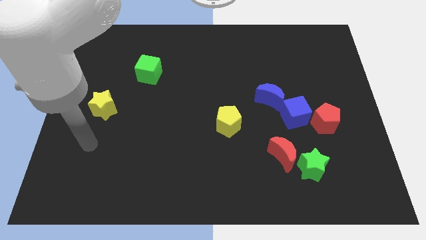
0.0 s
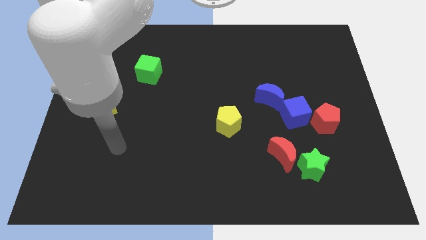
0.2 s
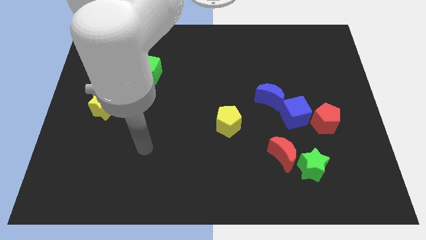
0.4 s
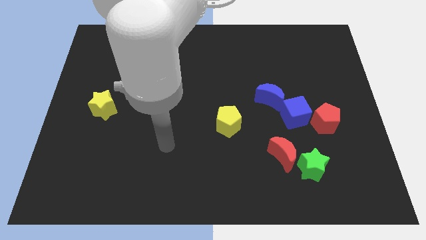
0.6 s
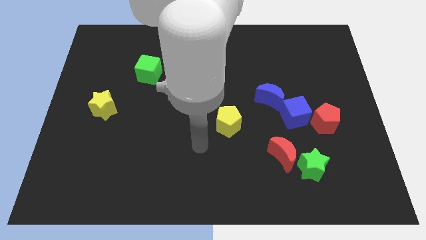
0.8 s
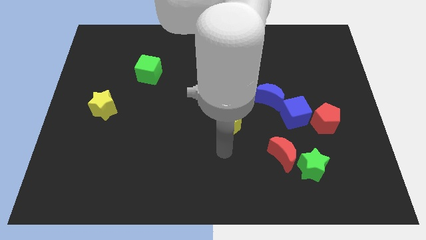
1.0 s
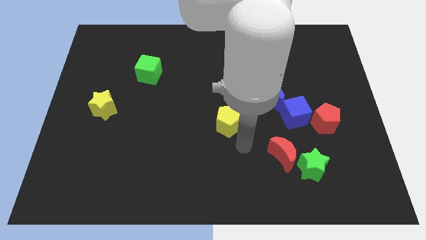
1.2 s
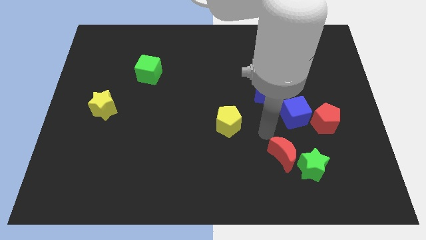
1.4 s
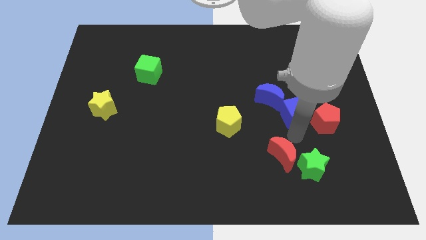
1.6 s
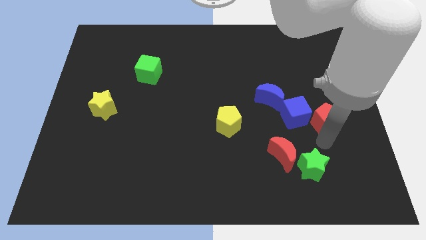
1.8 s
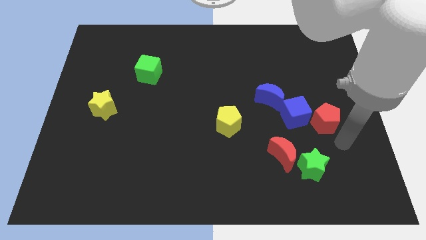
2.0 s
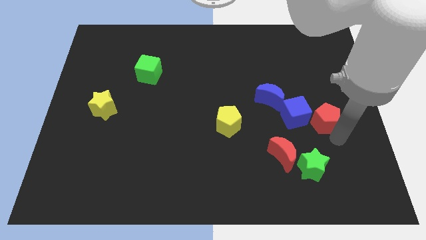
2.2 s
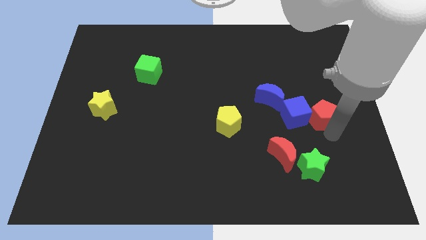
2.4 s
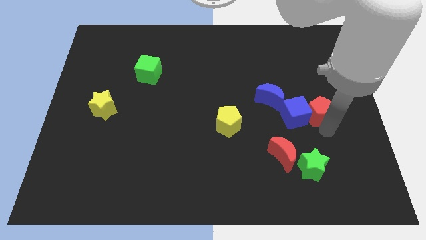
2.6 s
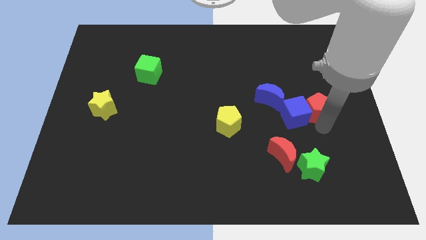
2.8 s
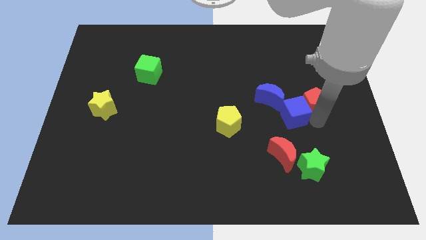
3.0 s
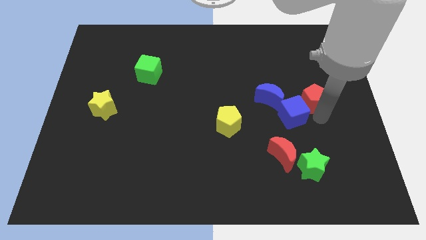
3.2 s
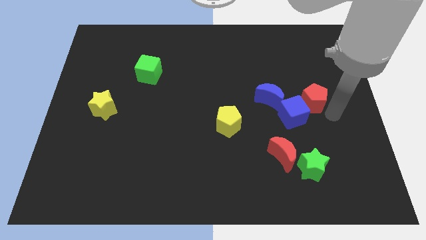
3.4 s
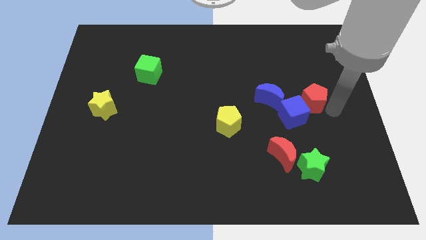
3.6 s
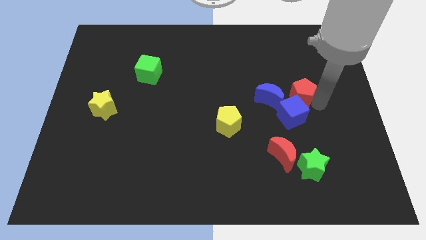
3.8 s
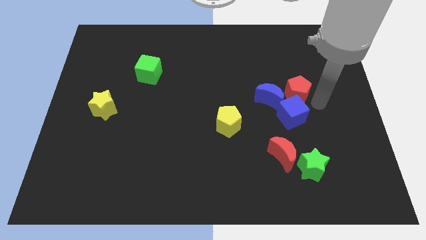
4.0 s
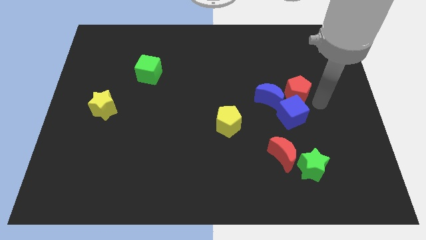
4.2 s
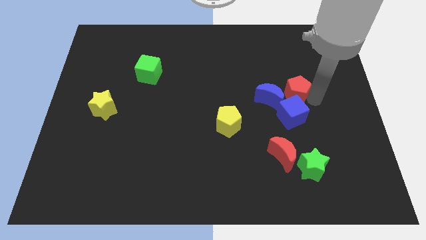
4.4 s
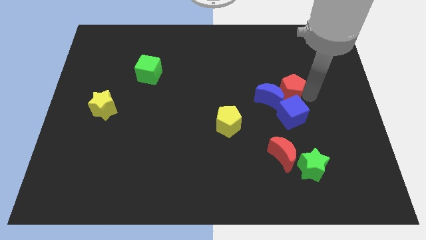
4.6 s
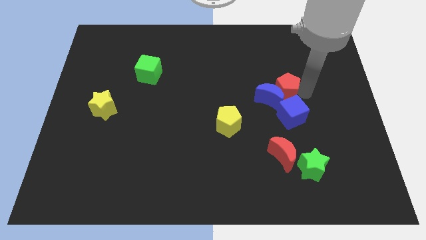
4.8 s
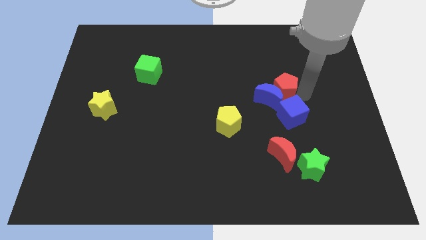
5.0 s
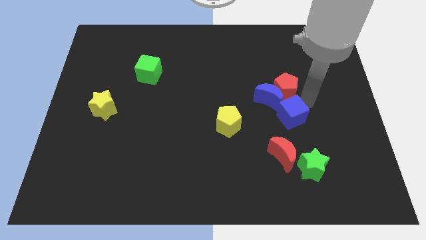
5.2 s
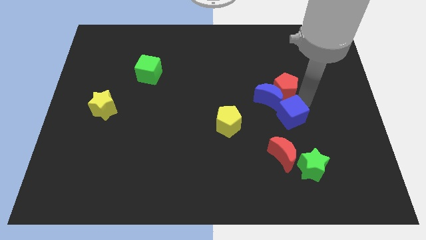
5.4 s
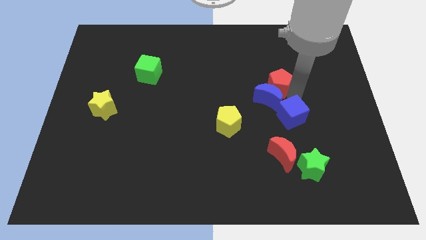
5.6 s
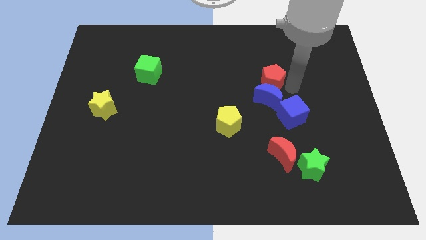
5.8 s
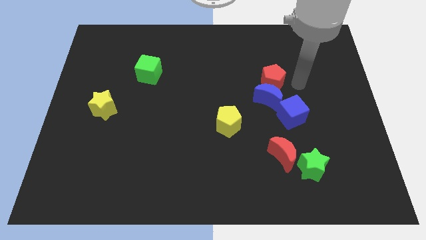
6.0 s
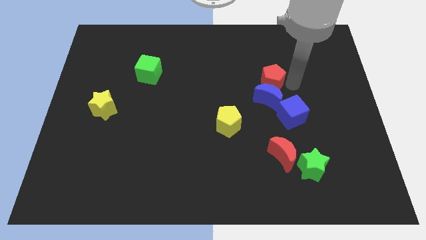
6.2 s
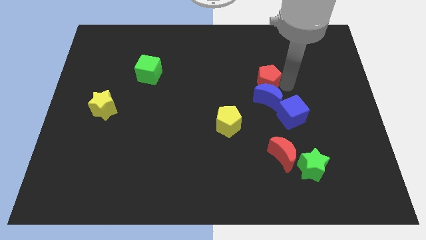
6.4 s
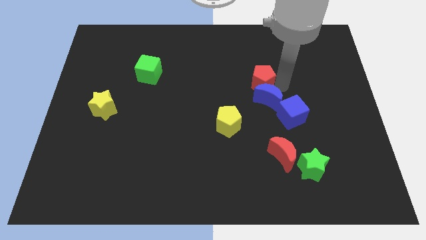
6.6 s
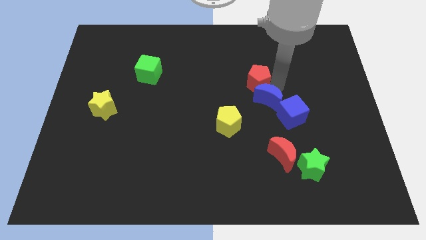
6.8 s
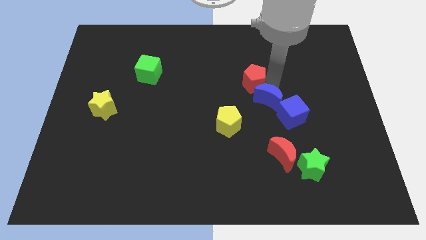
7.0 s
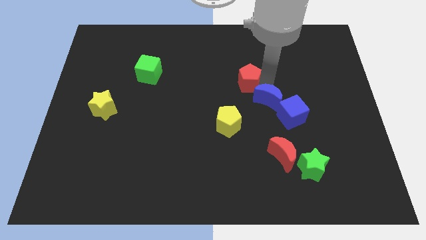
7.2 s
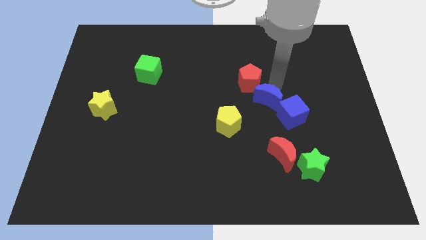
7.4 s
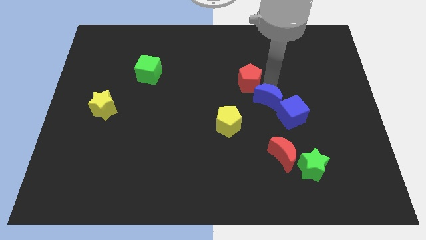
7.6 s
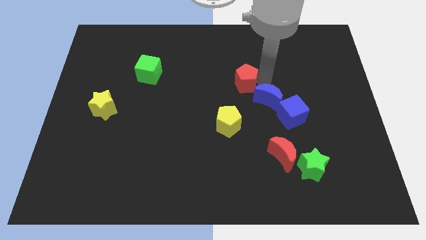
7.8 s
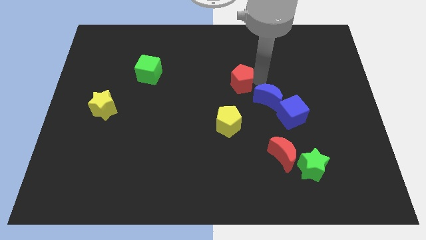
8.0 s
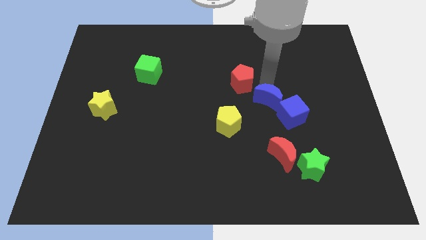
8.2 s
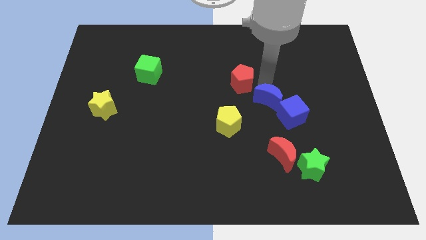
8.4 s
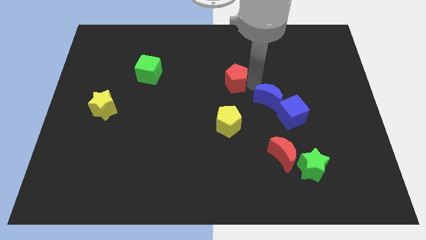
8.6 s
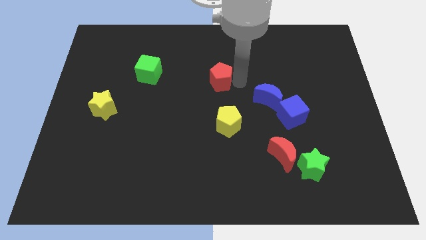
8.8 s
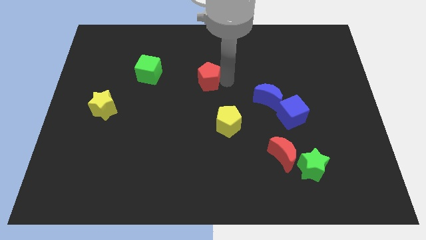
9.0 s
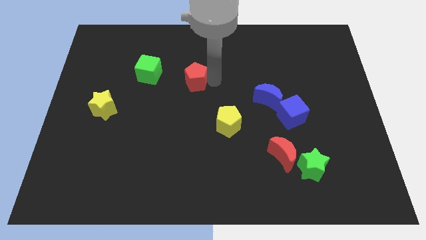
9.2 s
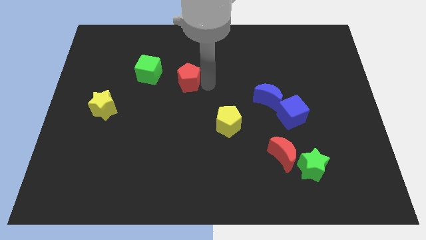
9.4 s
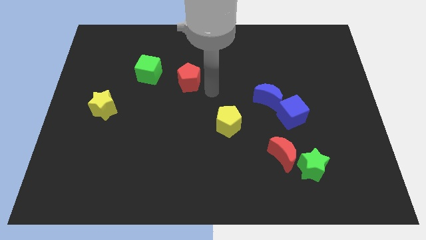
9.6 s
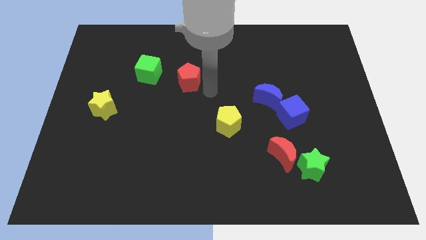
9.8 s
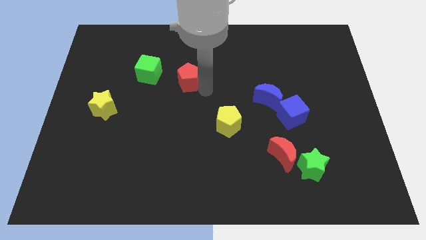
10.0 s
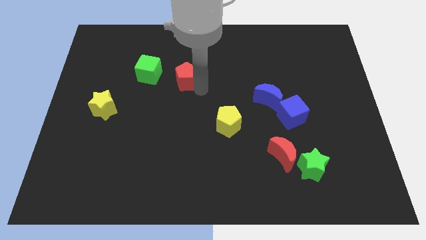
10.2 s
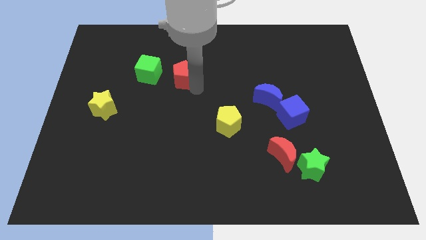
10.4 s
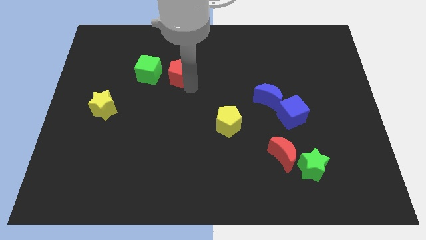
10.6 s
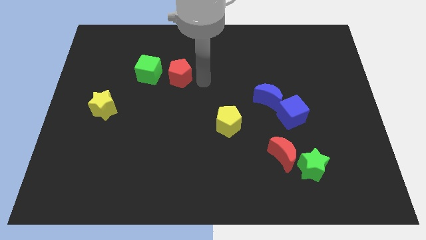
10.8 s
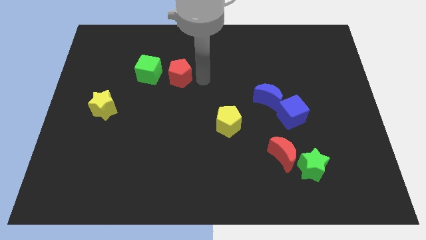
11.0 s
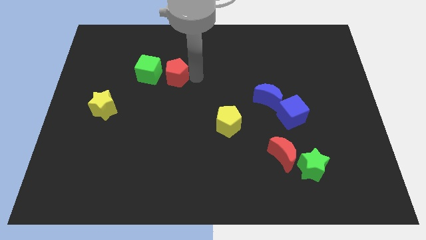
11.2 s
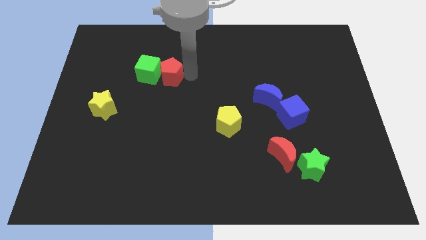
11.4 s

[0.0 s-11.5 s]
push the red pentagon next to the green cube

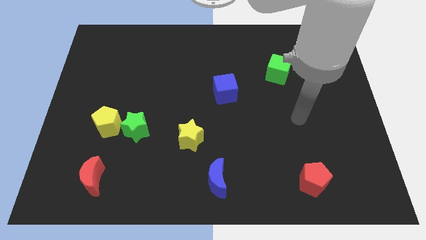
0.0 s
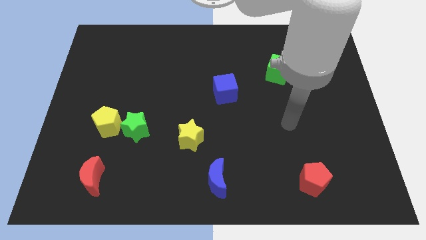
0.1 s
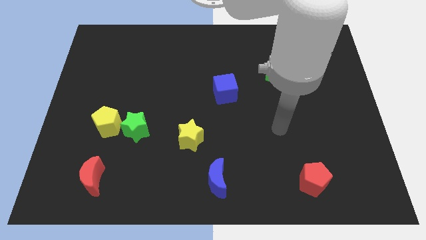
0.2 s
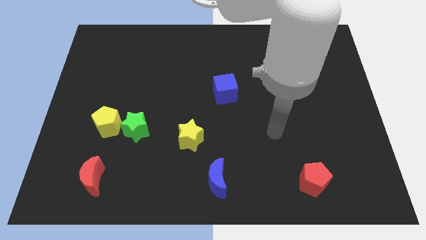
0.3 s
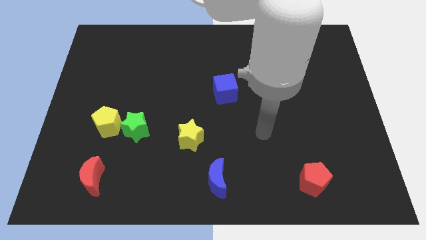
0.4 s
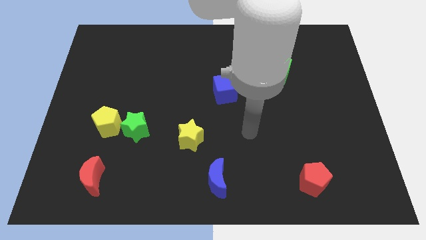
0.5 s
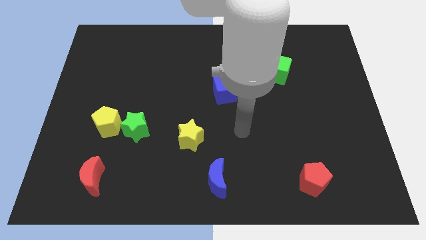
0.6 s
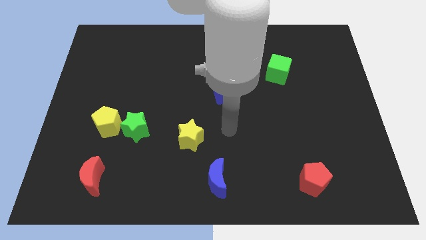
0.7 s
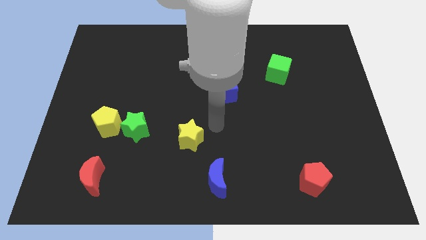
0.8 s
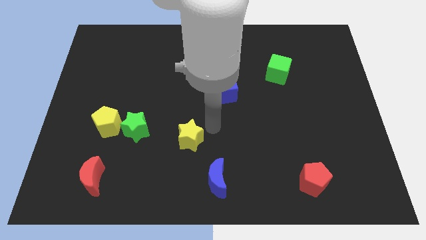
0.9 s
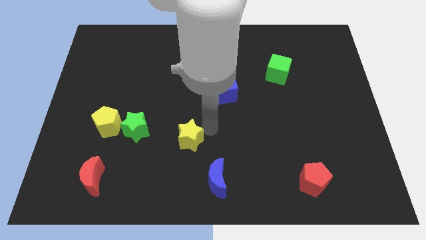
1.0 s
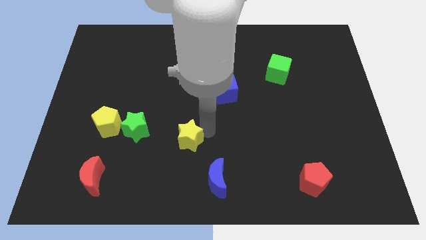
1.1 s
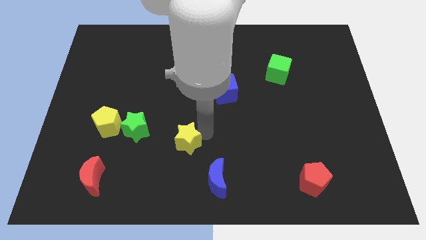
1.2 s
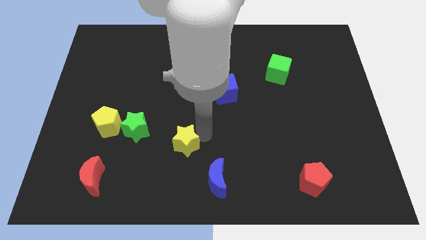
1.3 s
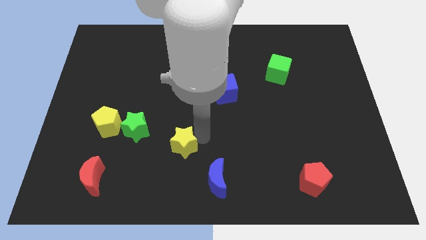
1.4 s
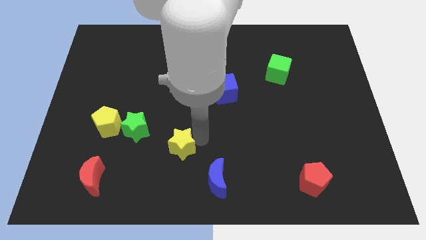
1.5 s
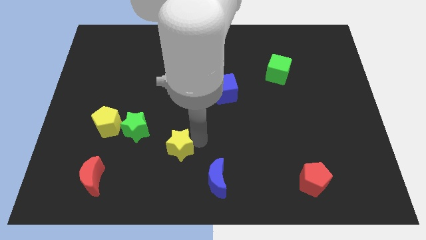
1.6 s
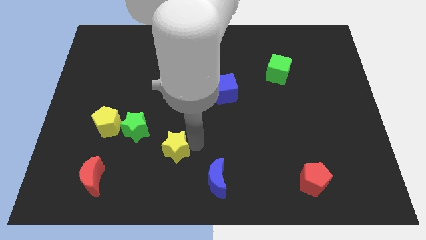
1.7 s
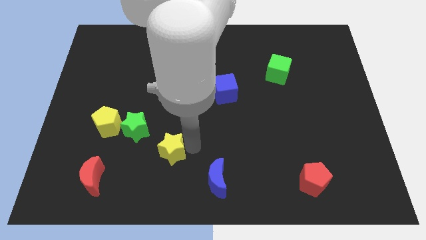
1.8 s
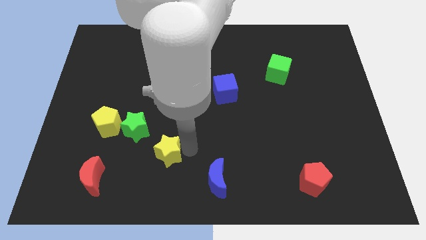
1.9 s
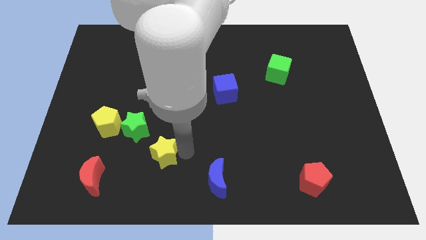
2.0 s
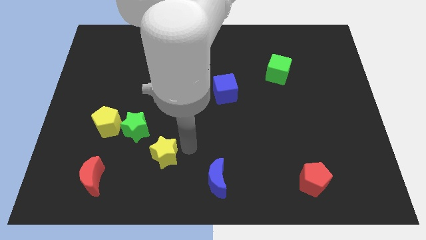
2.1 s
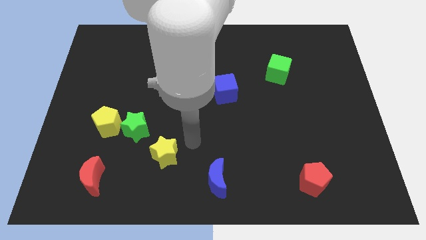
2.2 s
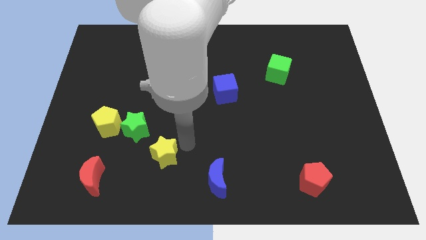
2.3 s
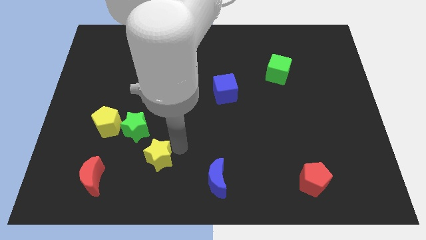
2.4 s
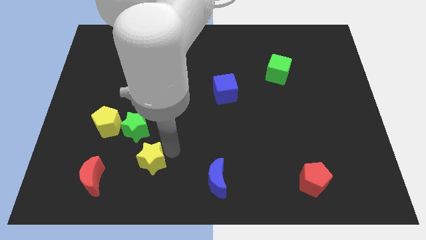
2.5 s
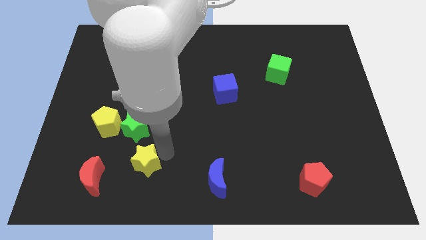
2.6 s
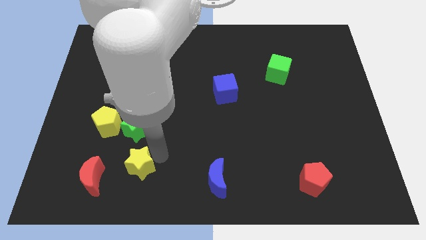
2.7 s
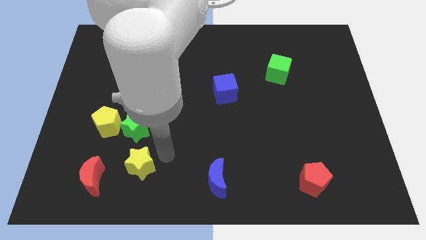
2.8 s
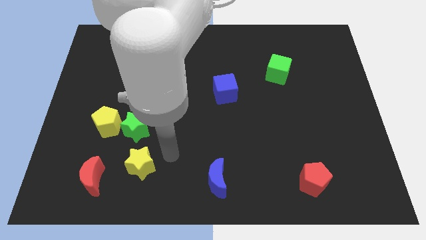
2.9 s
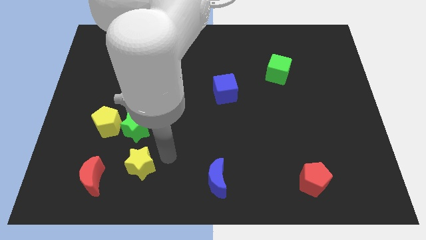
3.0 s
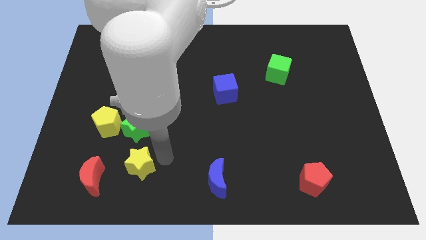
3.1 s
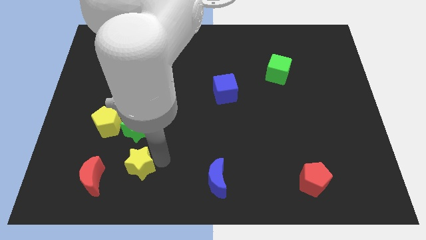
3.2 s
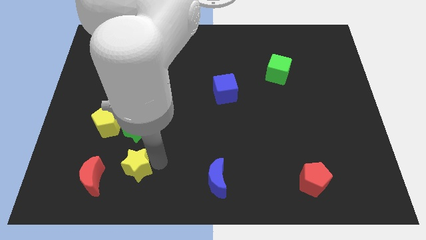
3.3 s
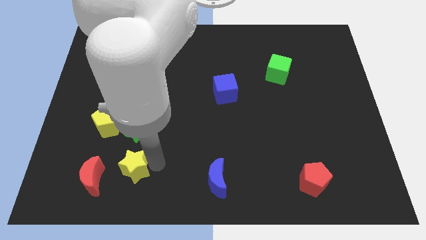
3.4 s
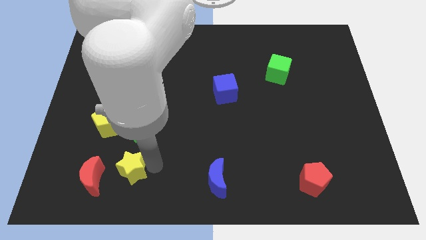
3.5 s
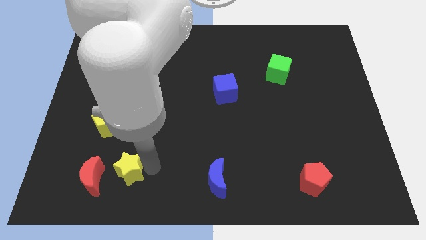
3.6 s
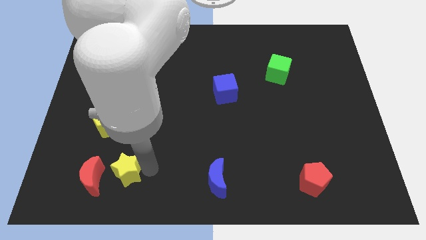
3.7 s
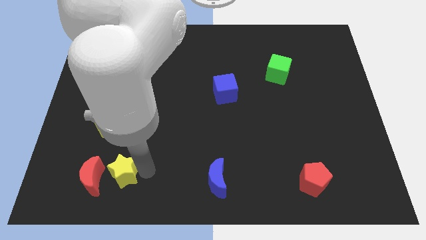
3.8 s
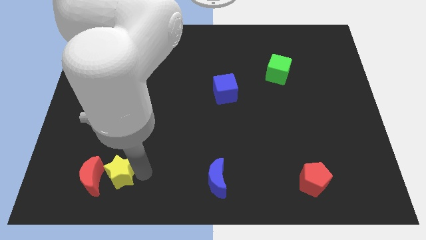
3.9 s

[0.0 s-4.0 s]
move the yellow star next to the red moon
